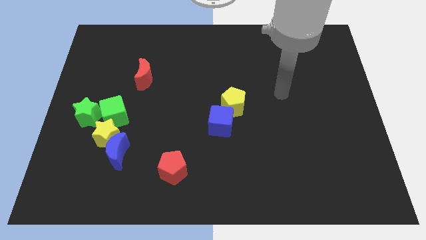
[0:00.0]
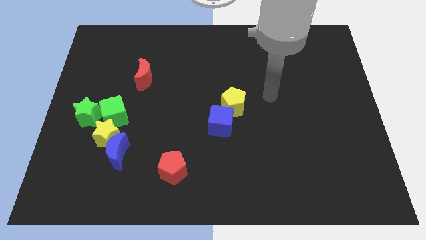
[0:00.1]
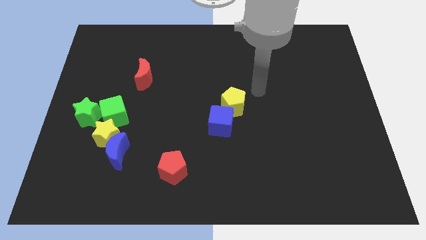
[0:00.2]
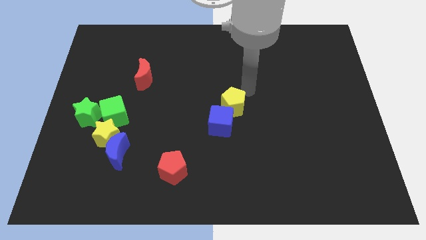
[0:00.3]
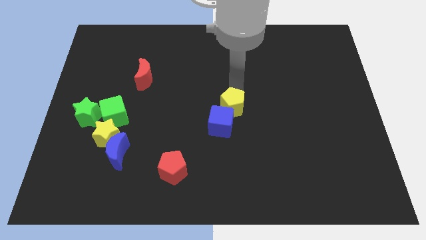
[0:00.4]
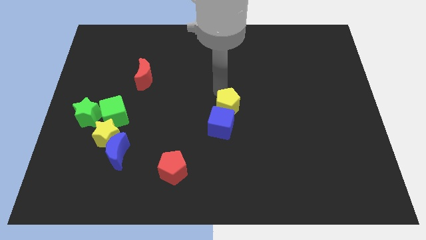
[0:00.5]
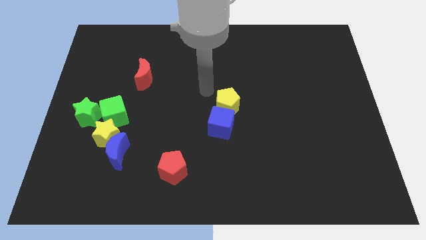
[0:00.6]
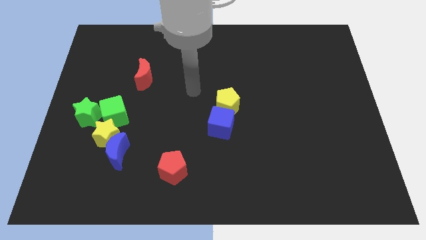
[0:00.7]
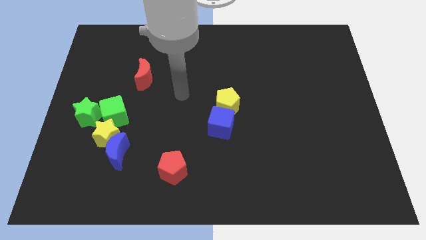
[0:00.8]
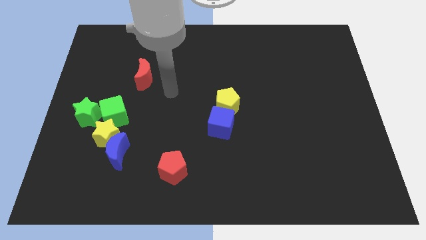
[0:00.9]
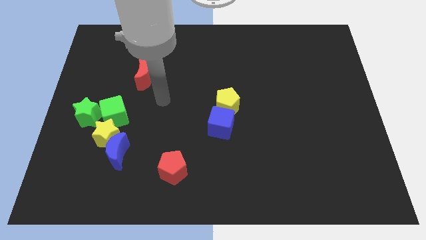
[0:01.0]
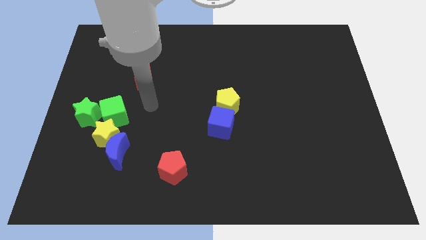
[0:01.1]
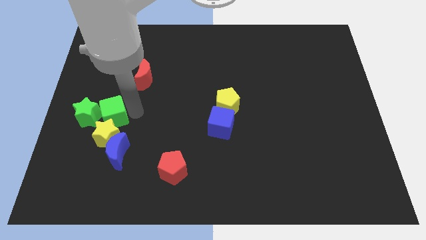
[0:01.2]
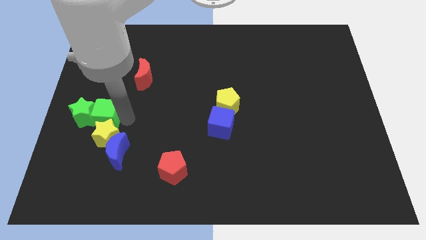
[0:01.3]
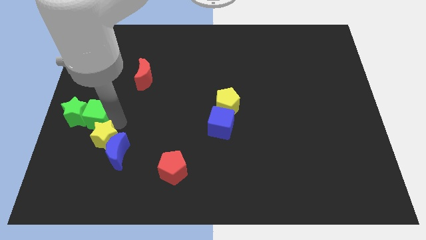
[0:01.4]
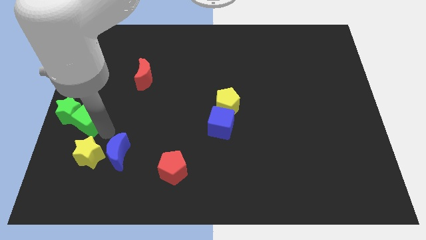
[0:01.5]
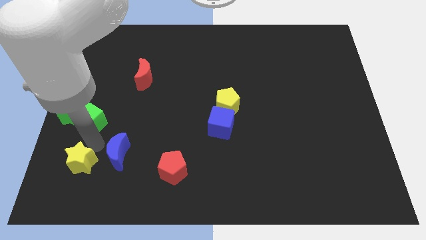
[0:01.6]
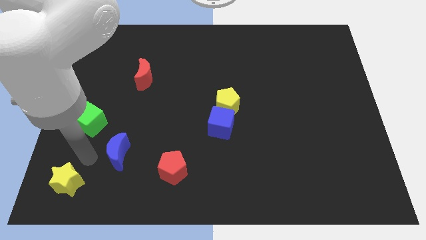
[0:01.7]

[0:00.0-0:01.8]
move the blue moon away from the yellow star

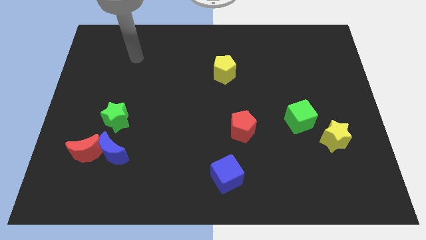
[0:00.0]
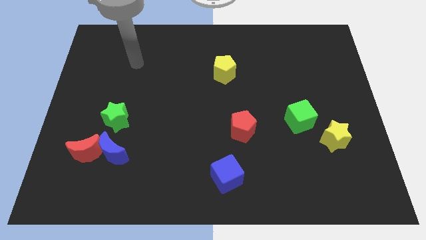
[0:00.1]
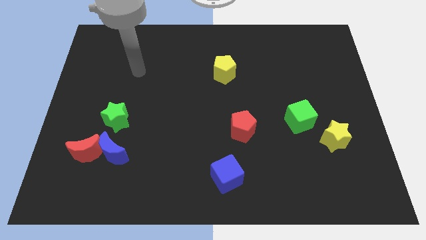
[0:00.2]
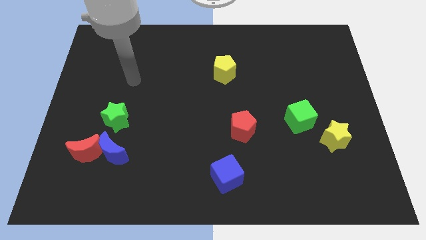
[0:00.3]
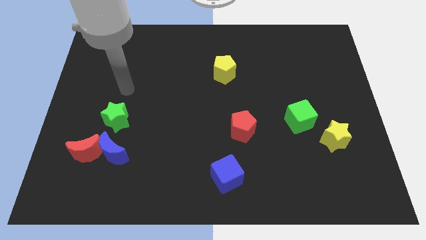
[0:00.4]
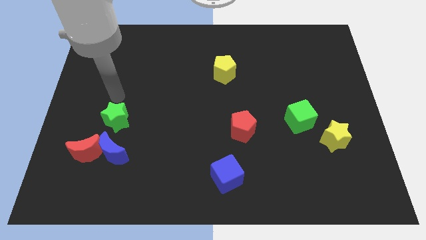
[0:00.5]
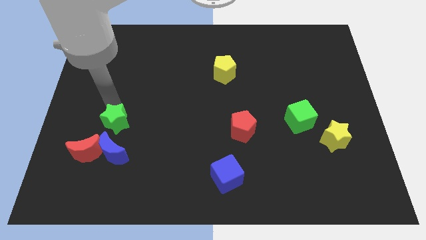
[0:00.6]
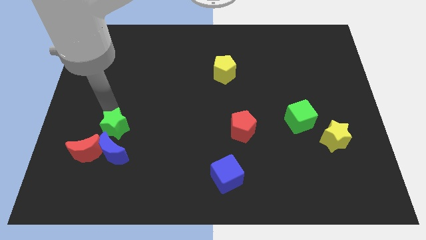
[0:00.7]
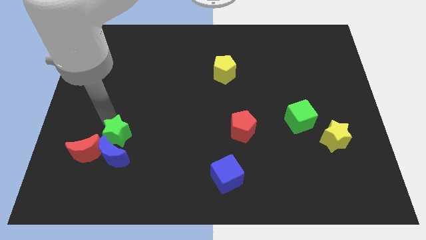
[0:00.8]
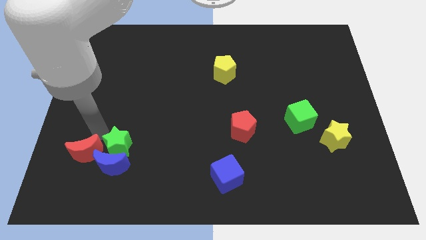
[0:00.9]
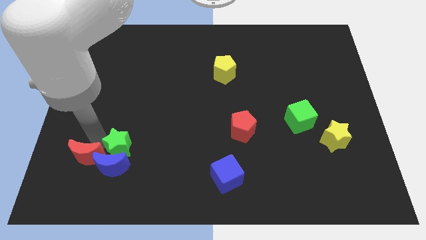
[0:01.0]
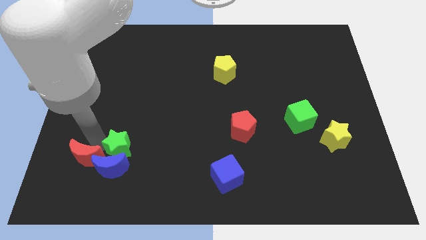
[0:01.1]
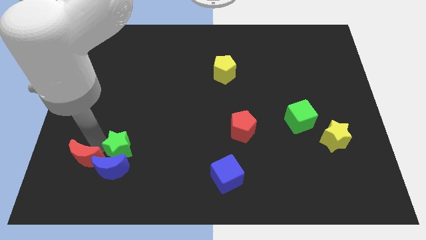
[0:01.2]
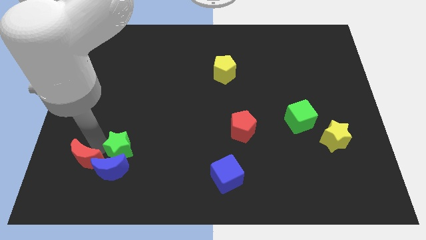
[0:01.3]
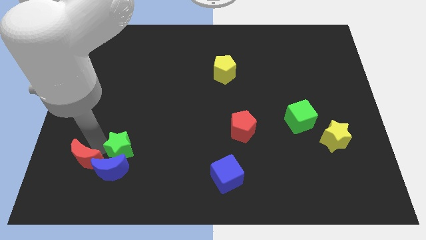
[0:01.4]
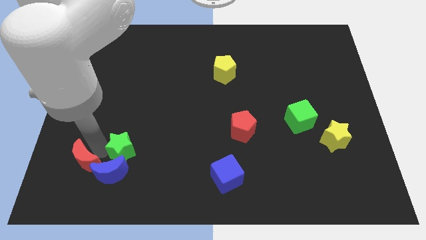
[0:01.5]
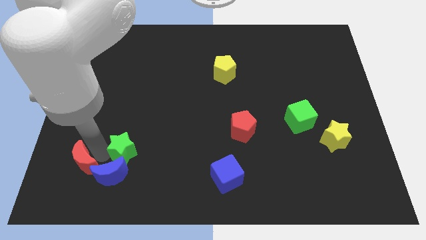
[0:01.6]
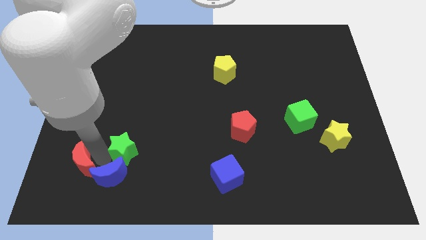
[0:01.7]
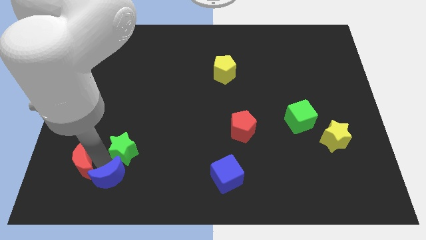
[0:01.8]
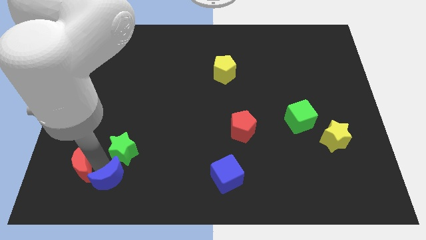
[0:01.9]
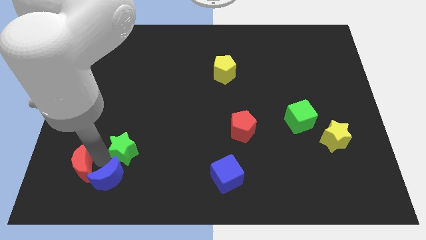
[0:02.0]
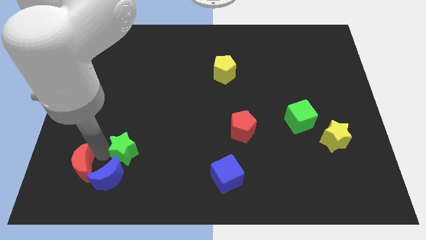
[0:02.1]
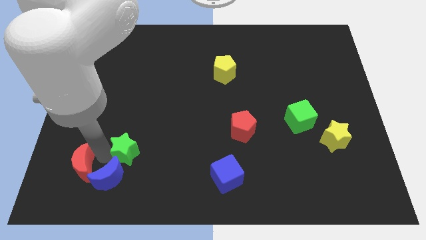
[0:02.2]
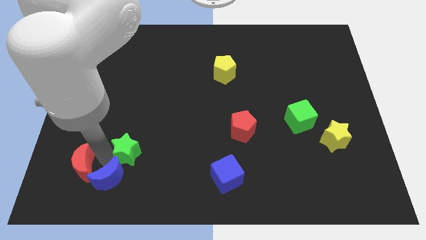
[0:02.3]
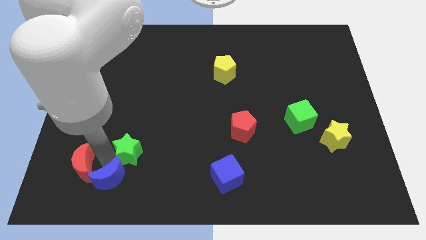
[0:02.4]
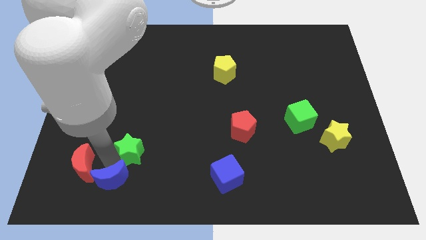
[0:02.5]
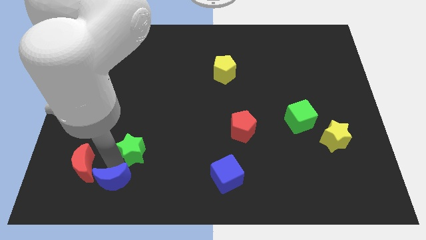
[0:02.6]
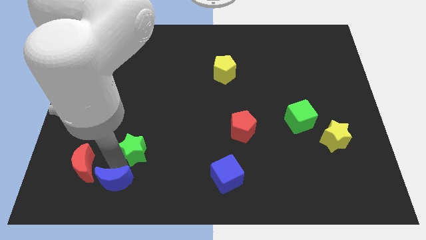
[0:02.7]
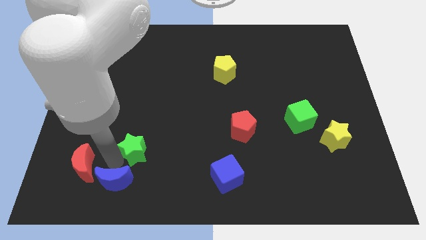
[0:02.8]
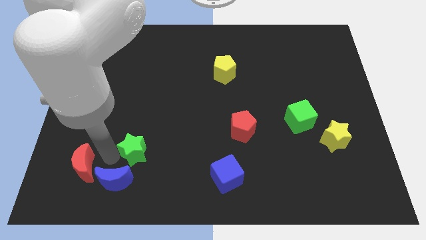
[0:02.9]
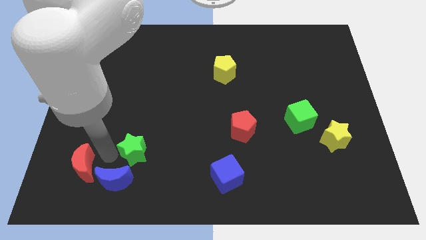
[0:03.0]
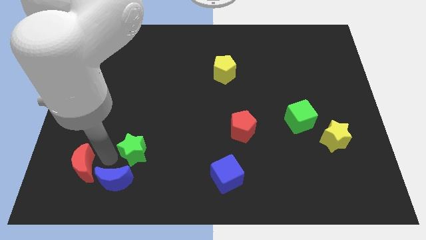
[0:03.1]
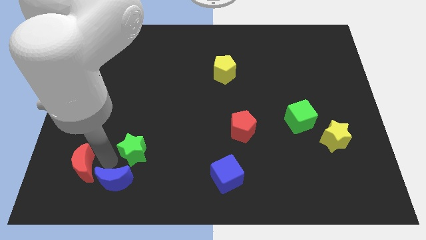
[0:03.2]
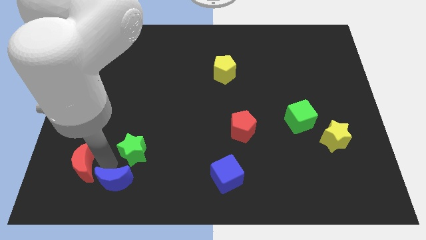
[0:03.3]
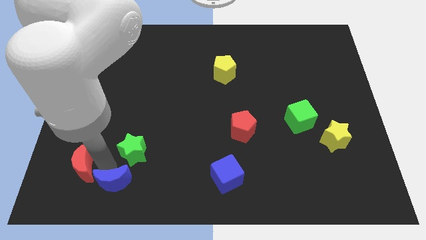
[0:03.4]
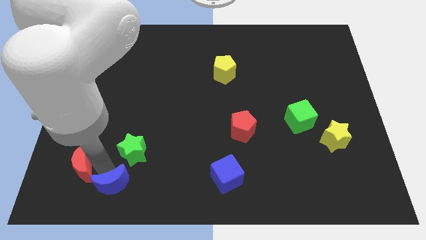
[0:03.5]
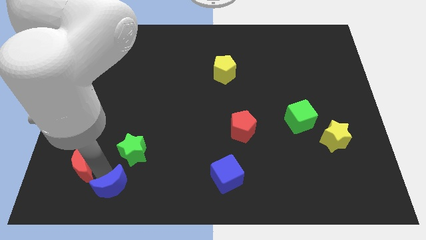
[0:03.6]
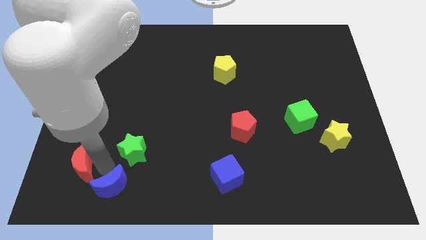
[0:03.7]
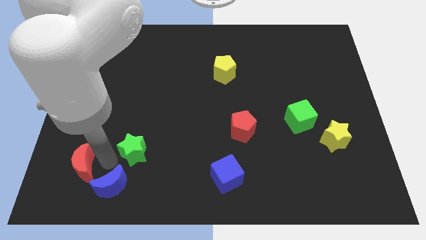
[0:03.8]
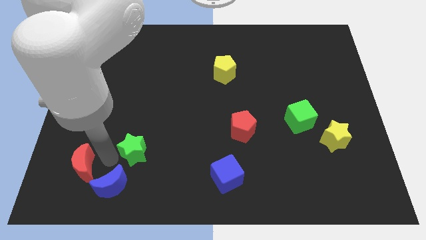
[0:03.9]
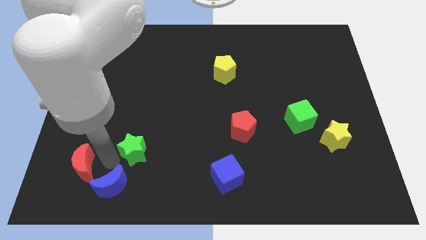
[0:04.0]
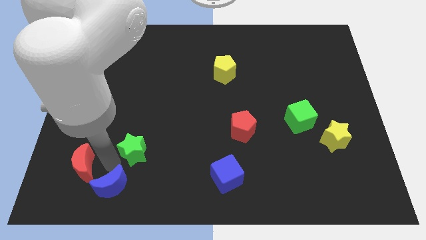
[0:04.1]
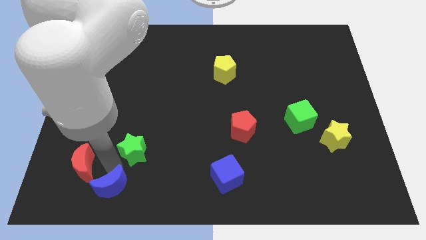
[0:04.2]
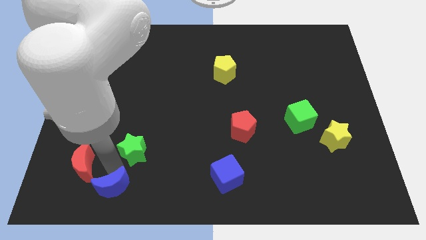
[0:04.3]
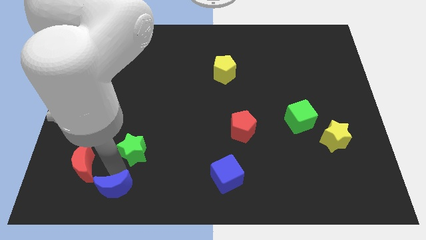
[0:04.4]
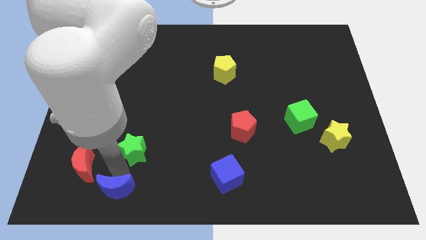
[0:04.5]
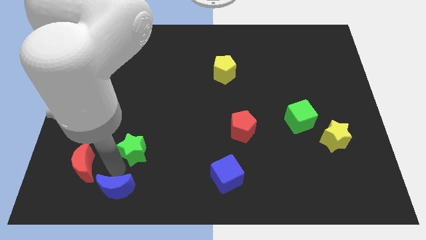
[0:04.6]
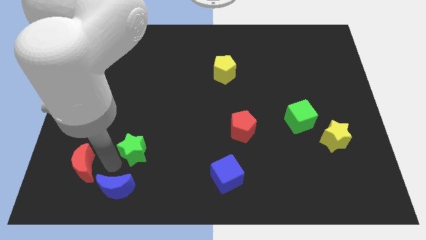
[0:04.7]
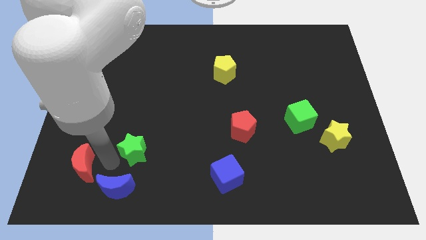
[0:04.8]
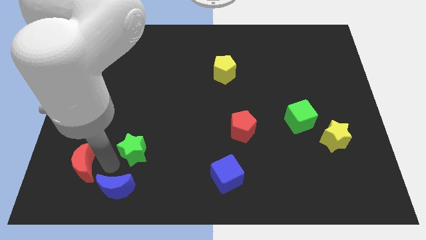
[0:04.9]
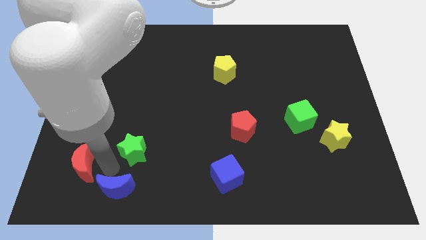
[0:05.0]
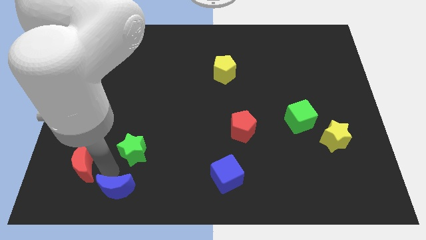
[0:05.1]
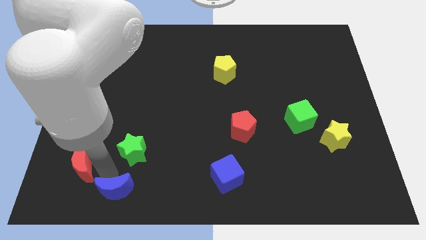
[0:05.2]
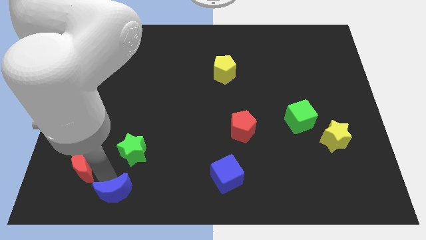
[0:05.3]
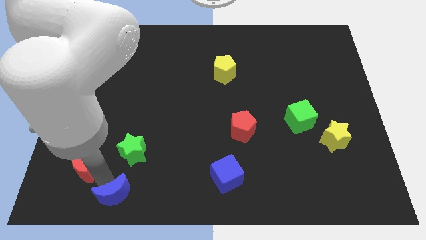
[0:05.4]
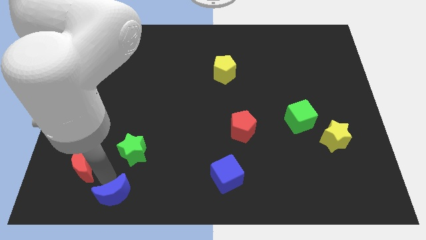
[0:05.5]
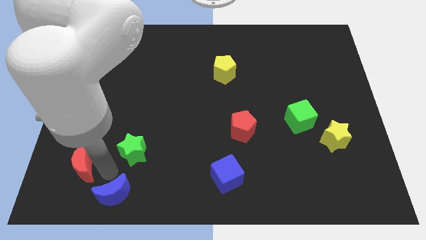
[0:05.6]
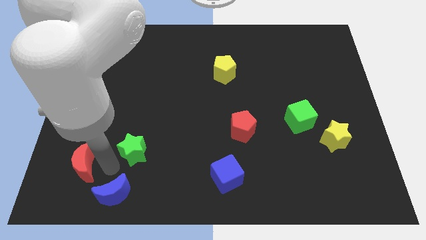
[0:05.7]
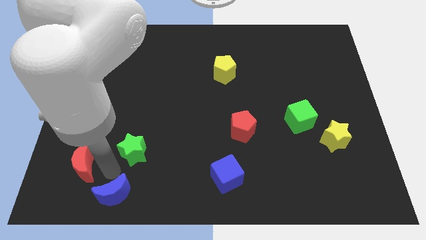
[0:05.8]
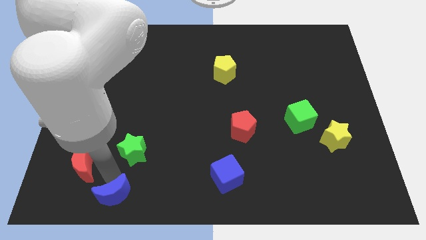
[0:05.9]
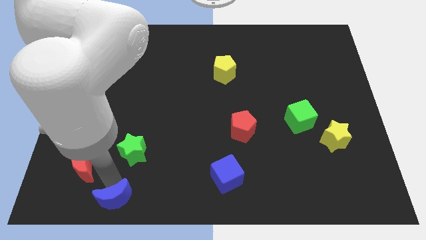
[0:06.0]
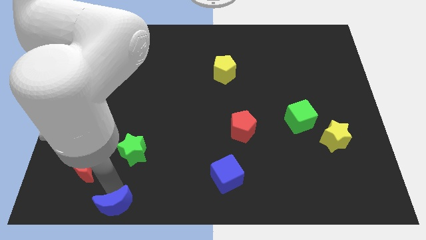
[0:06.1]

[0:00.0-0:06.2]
separate the blue moon from the red moon and green star

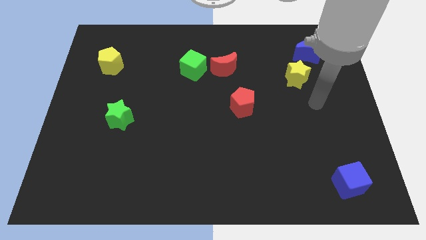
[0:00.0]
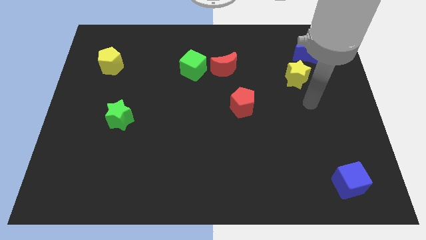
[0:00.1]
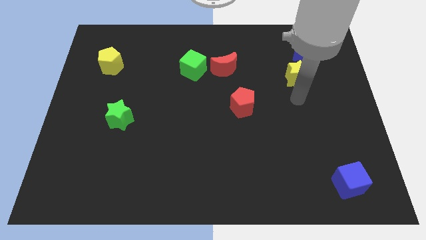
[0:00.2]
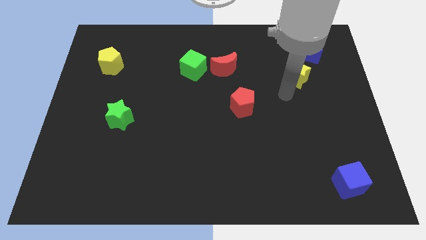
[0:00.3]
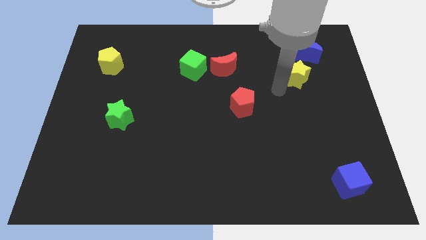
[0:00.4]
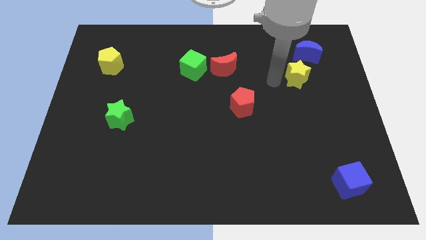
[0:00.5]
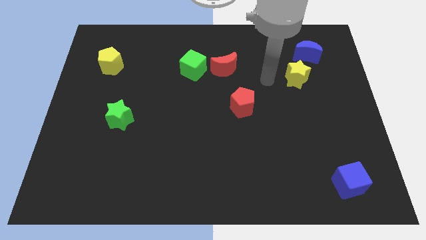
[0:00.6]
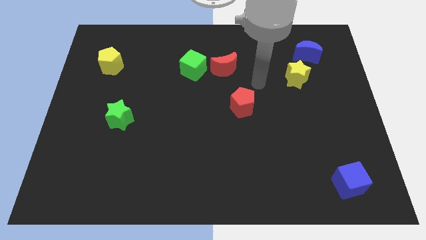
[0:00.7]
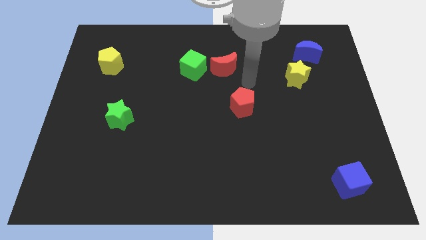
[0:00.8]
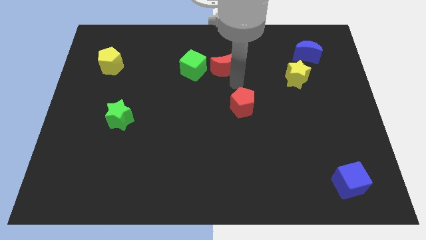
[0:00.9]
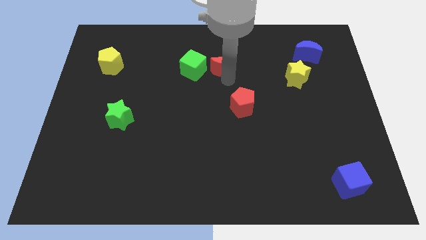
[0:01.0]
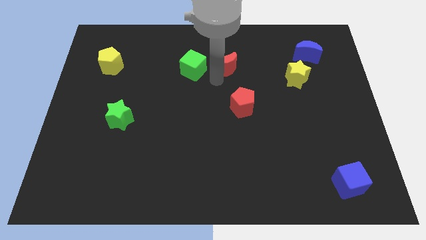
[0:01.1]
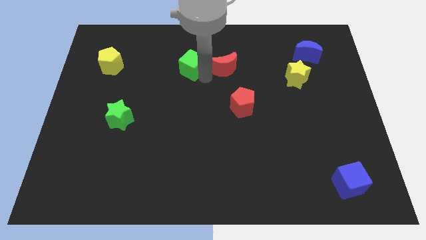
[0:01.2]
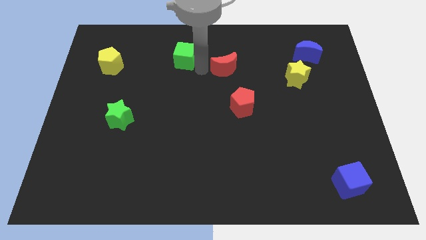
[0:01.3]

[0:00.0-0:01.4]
move the red moon away from the green cube
